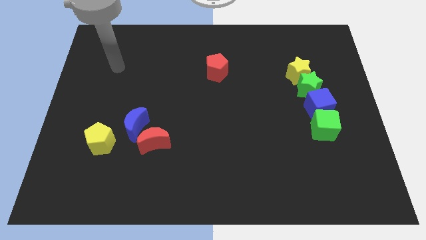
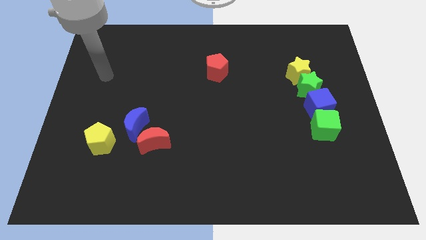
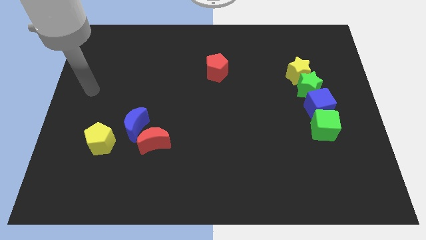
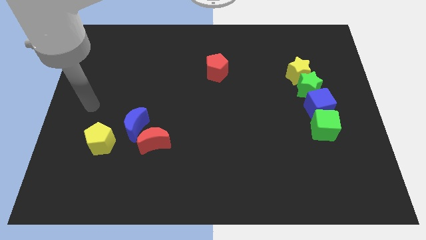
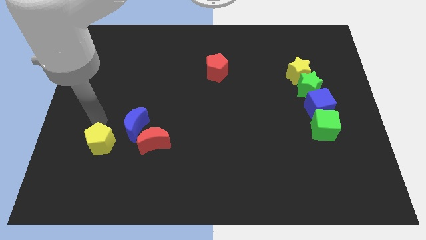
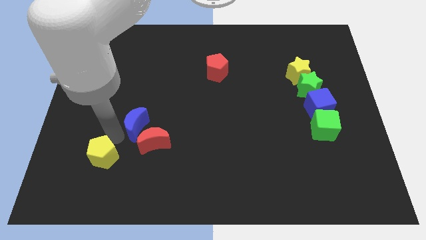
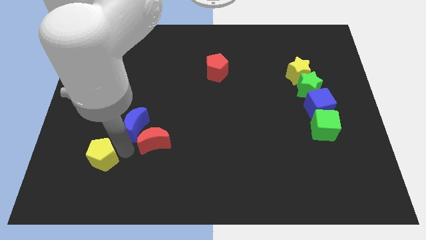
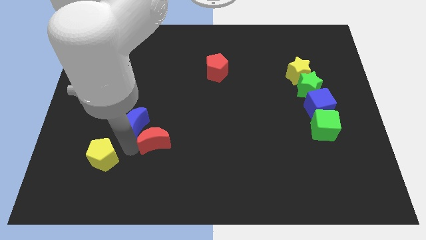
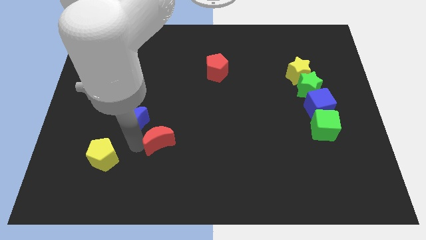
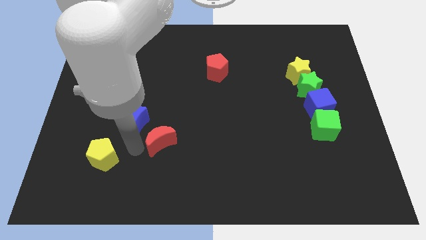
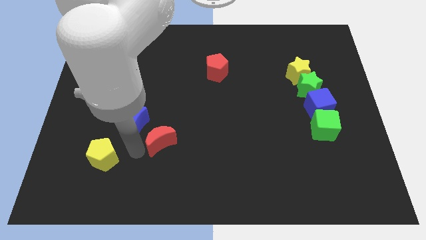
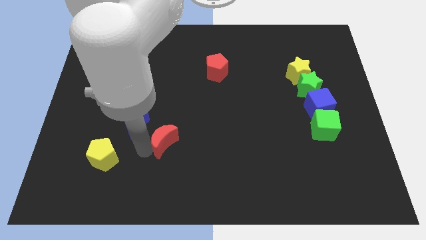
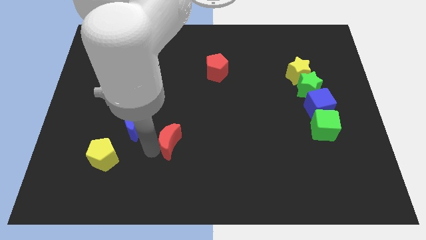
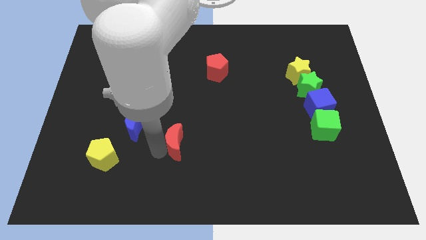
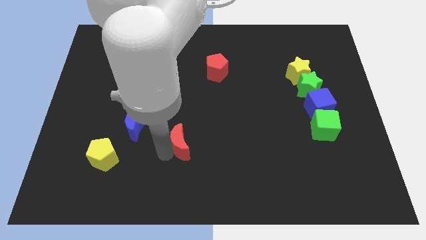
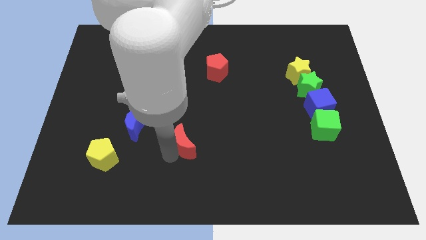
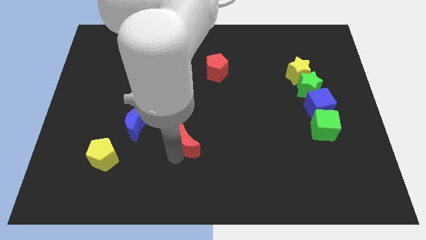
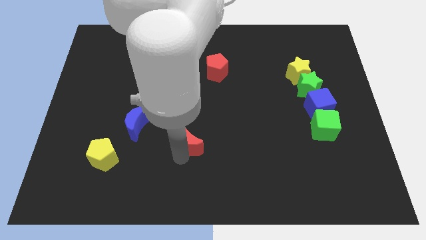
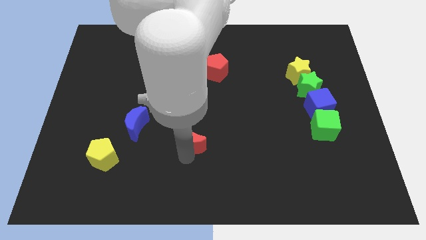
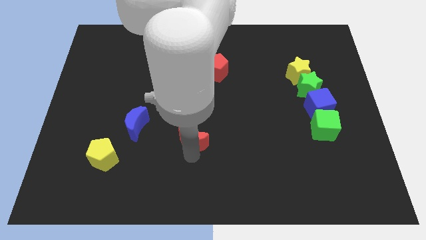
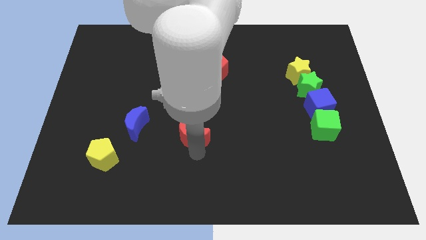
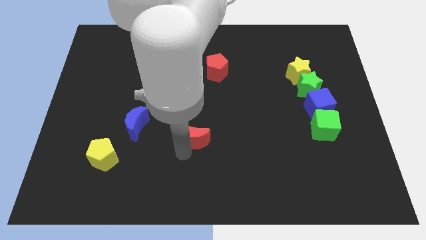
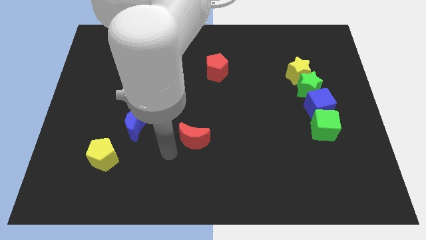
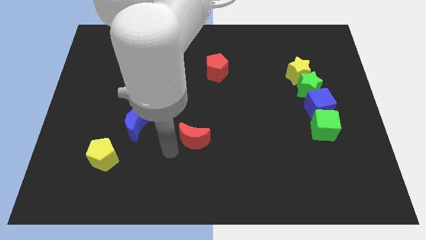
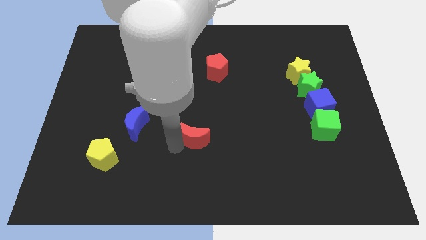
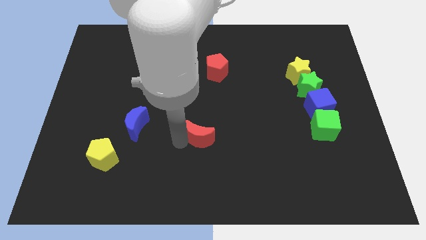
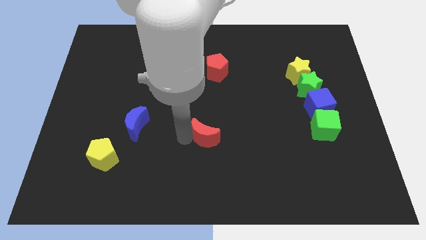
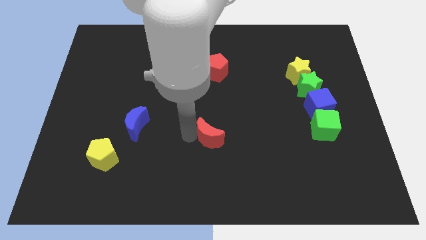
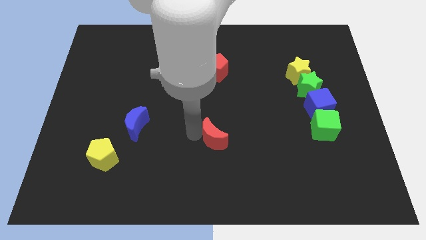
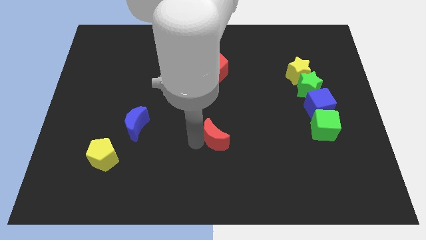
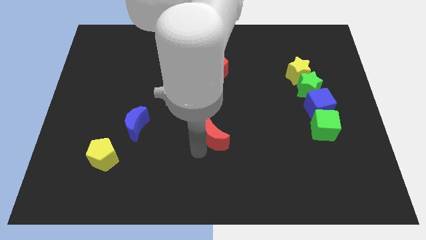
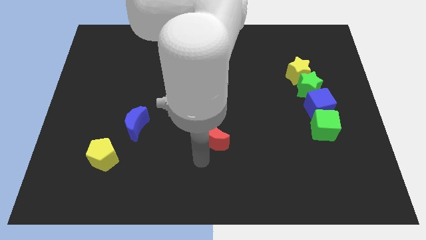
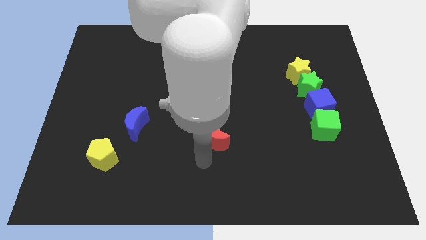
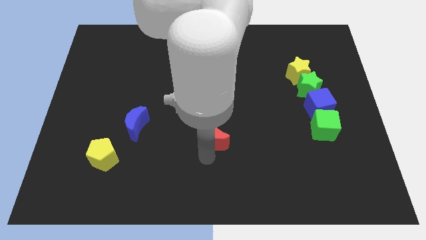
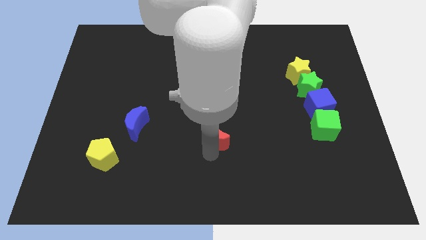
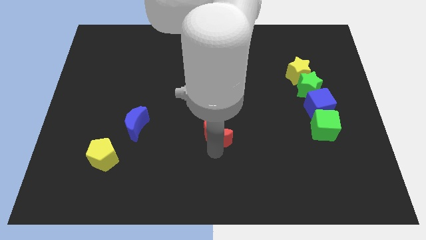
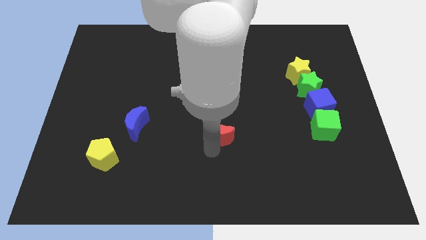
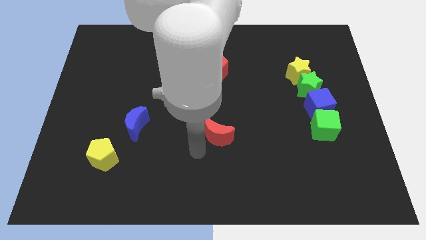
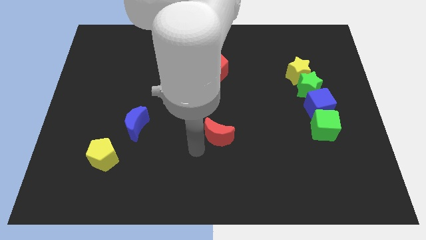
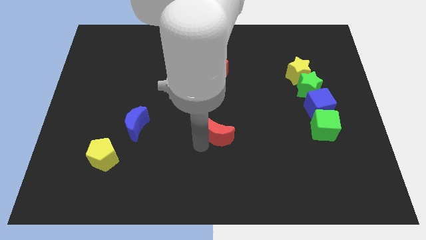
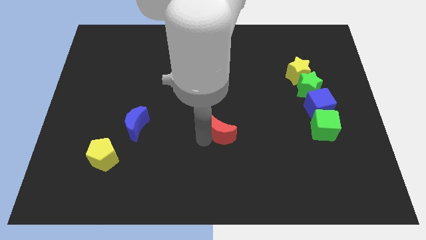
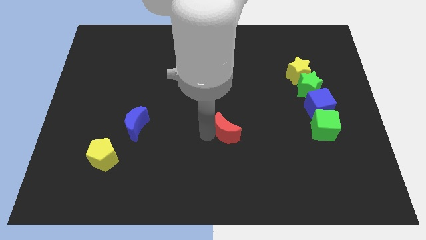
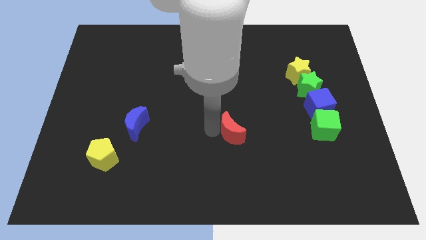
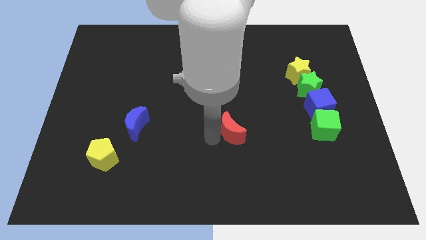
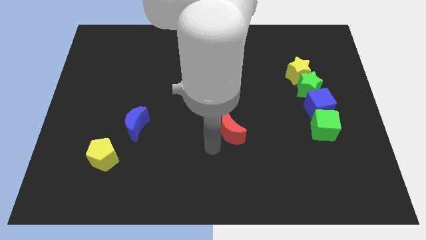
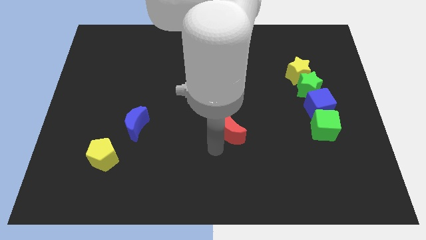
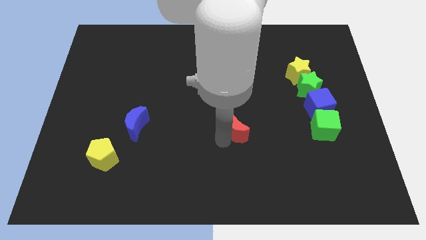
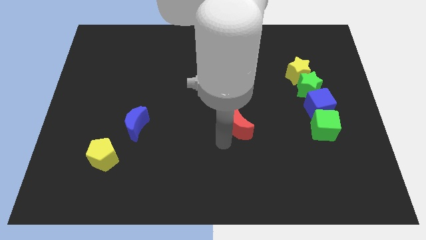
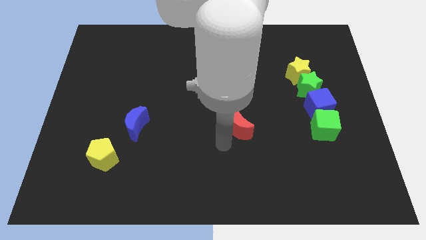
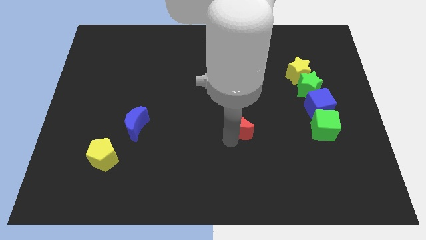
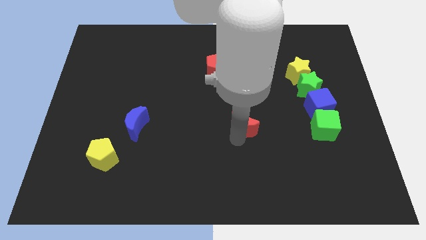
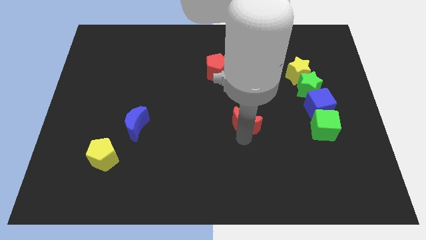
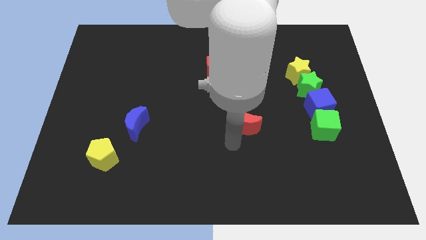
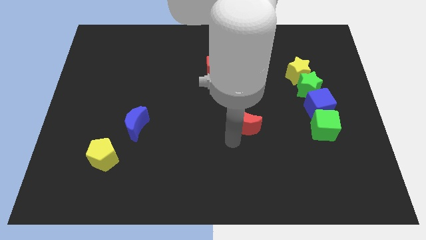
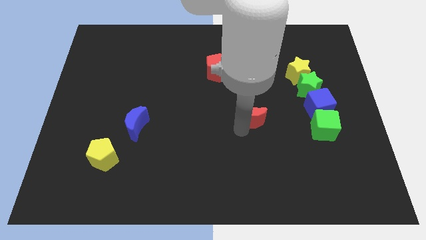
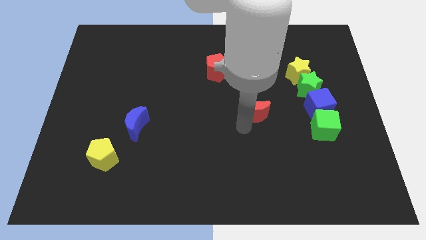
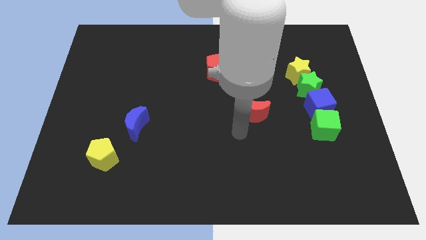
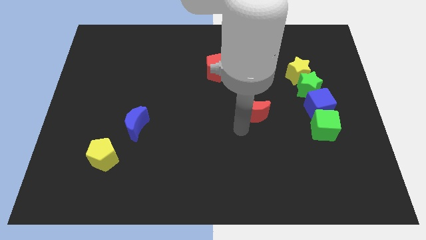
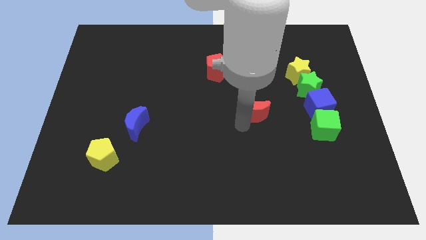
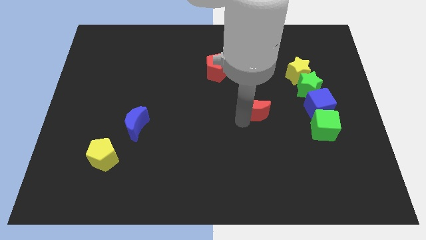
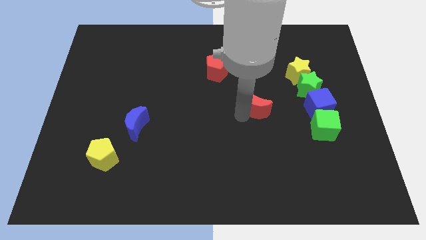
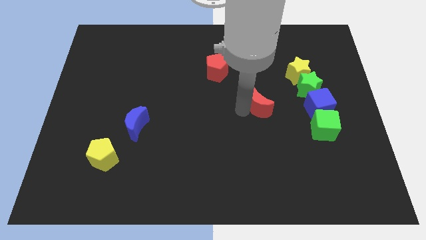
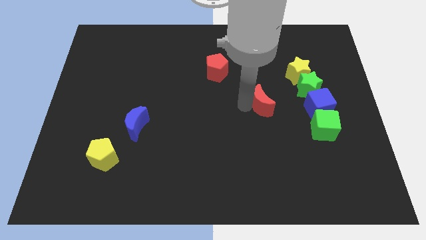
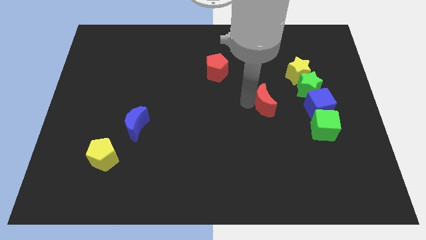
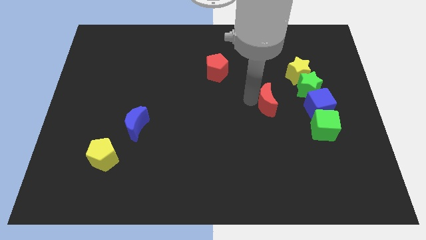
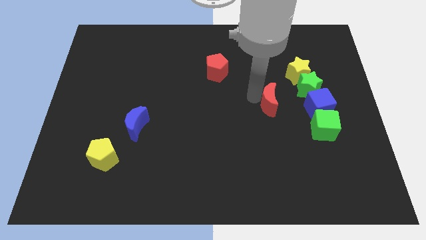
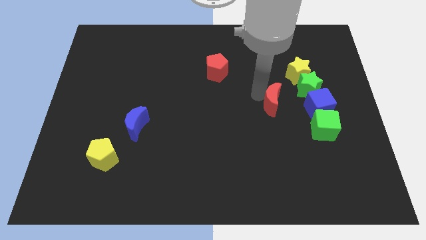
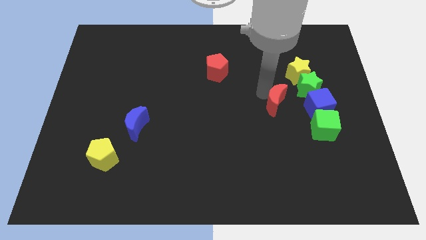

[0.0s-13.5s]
push the red moon to the top left of the green cube

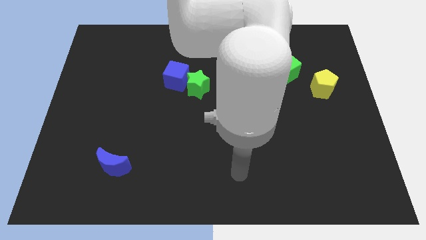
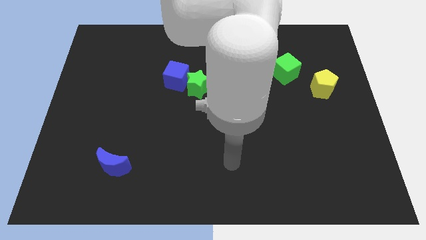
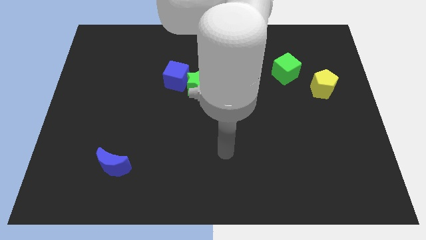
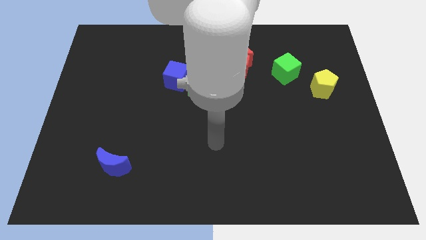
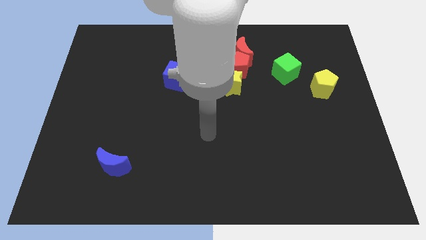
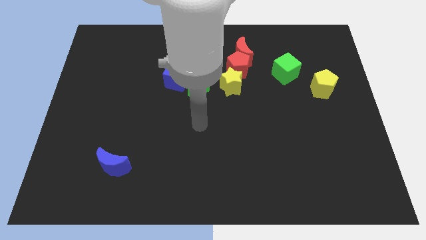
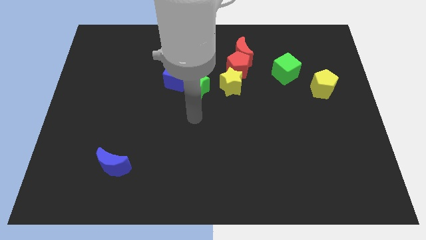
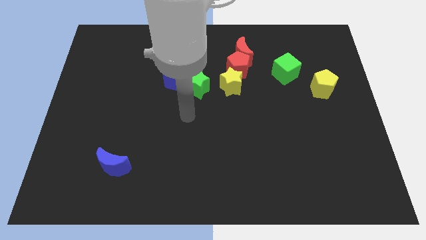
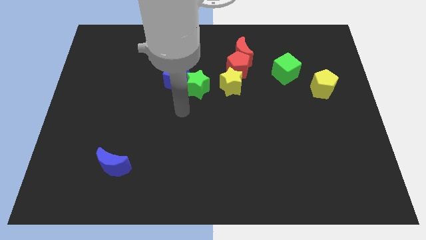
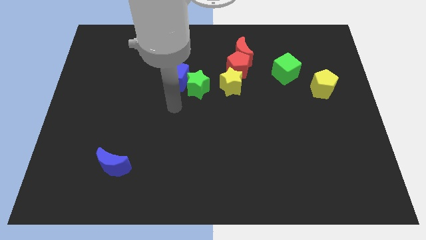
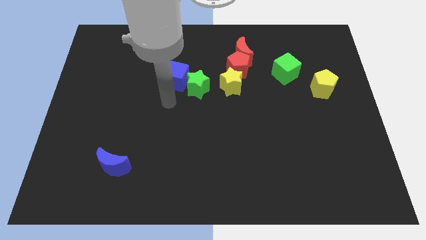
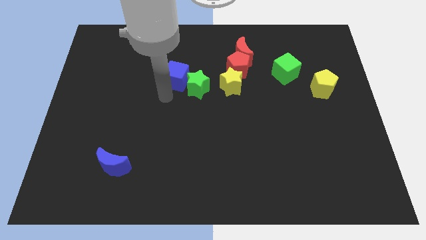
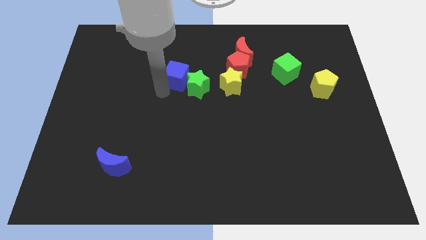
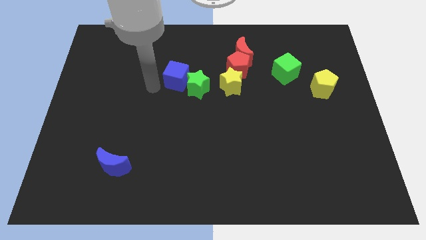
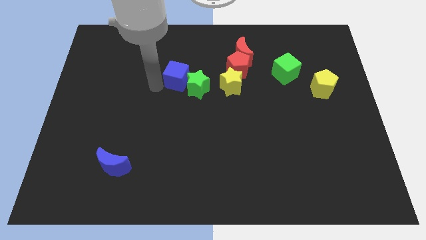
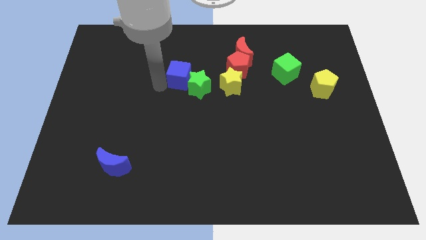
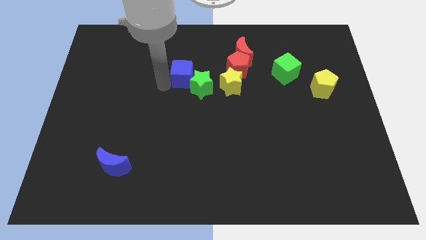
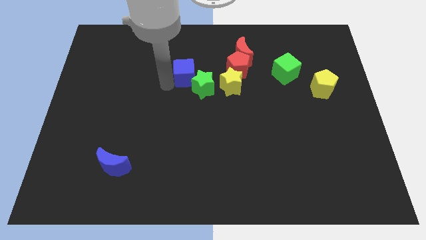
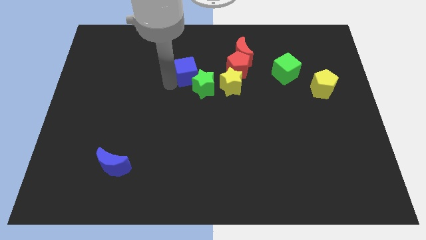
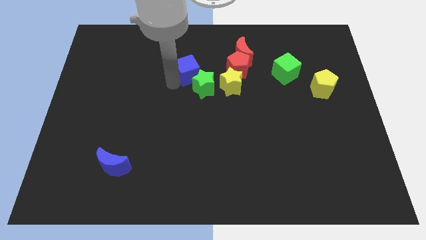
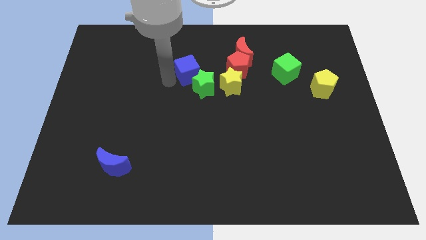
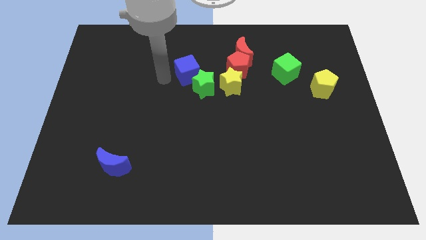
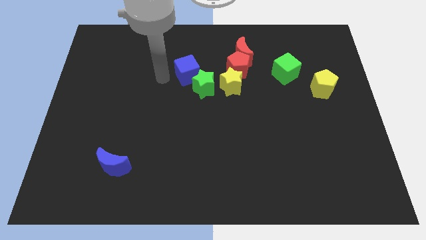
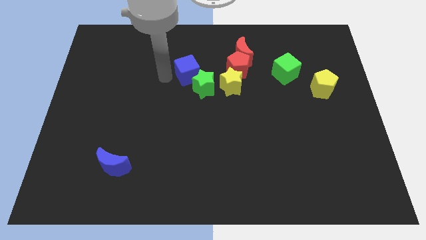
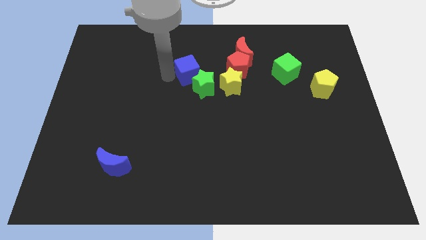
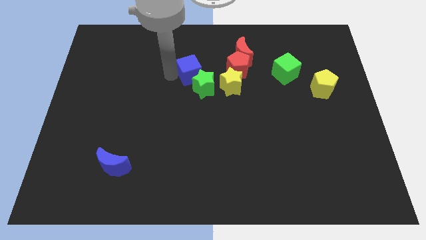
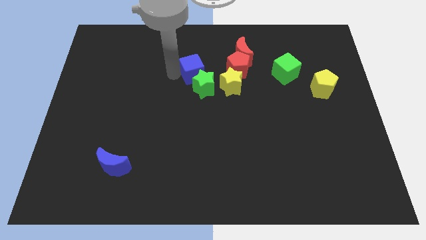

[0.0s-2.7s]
move the blue cube to the top left of the yellow star
